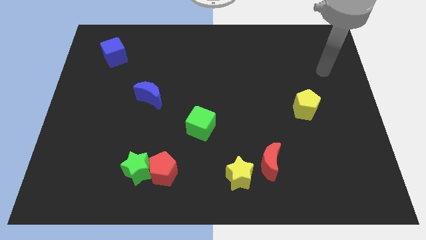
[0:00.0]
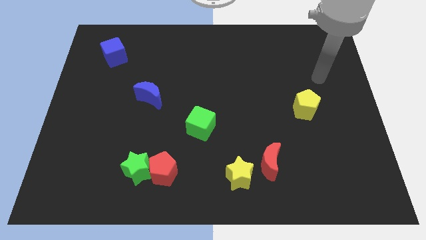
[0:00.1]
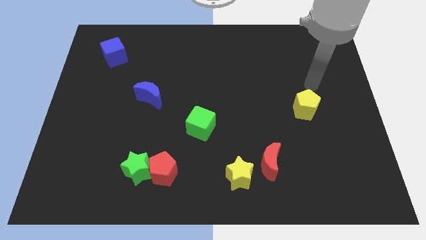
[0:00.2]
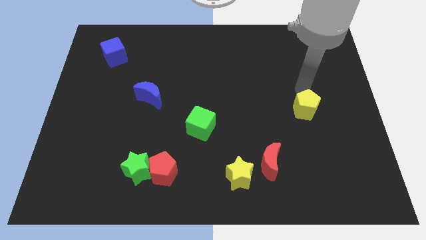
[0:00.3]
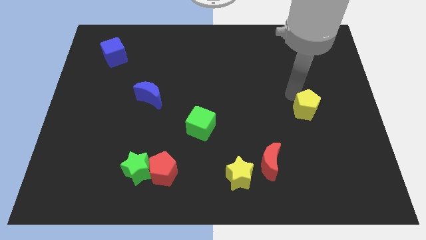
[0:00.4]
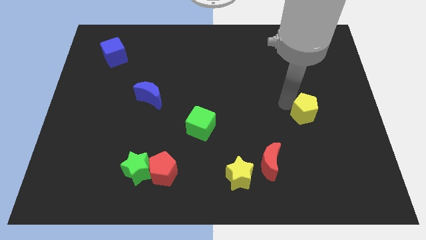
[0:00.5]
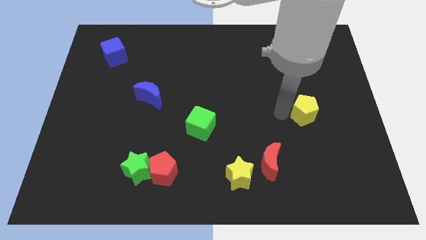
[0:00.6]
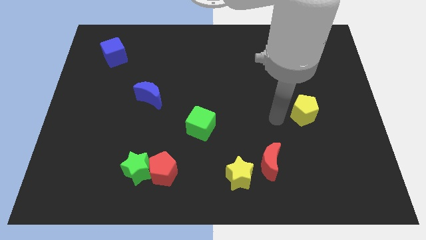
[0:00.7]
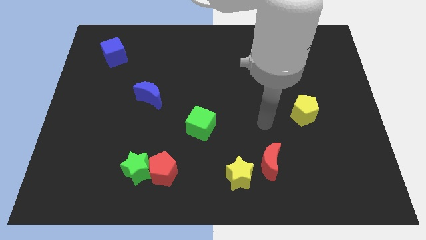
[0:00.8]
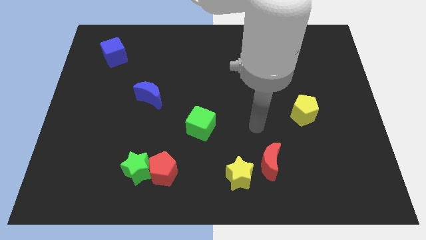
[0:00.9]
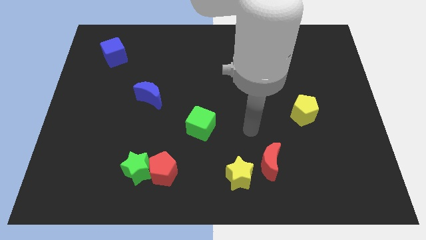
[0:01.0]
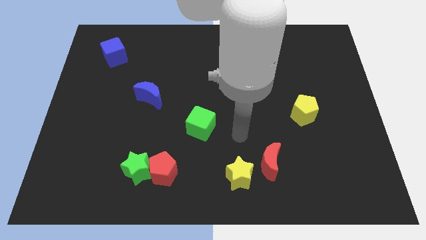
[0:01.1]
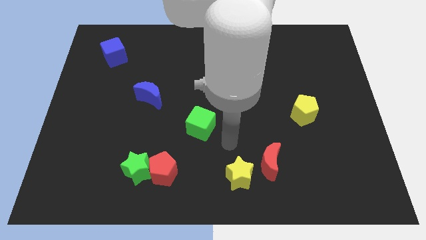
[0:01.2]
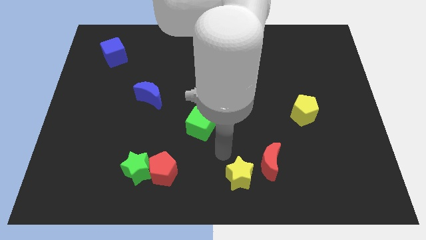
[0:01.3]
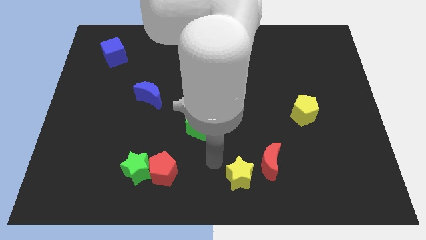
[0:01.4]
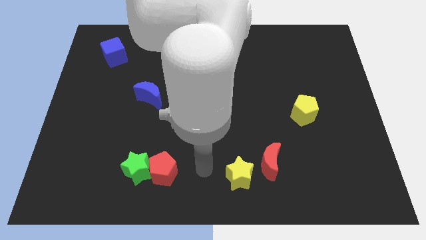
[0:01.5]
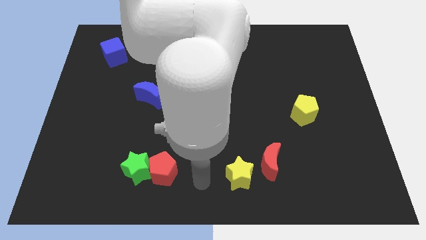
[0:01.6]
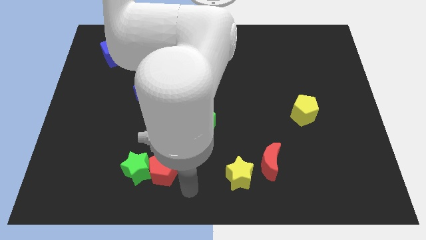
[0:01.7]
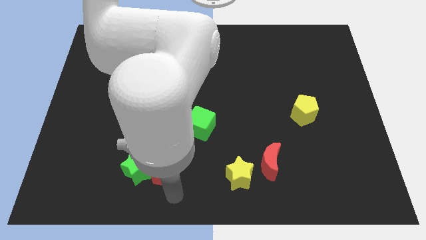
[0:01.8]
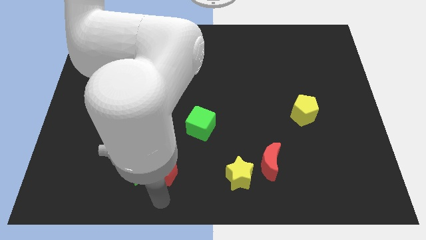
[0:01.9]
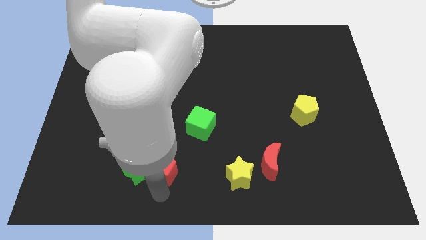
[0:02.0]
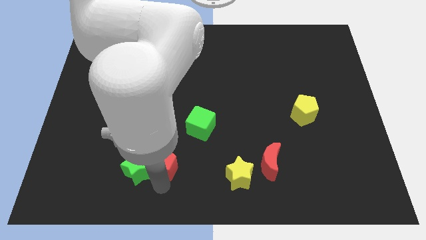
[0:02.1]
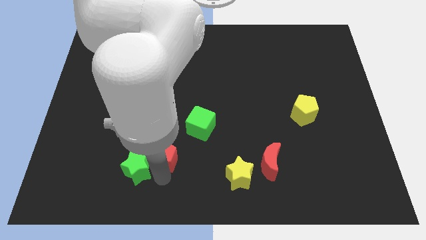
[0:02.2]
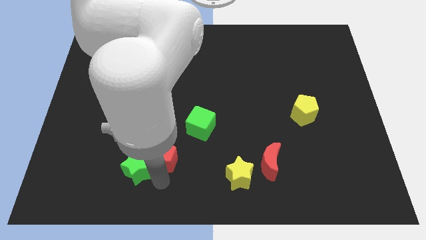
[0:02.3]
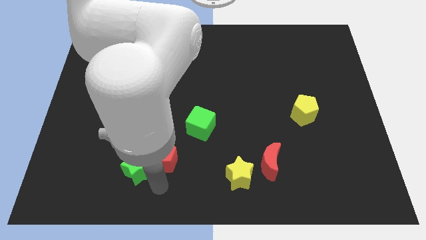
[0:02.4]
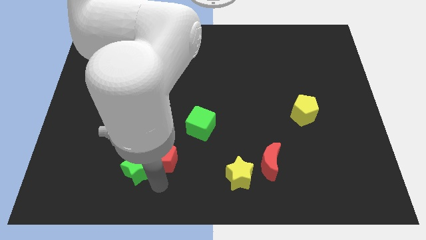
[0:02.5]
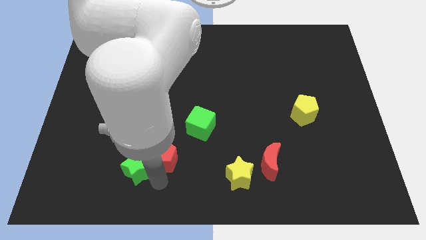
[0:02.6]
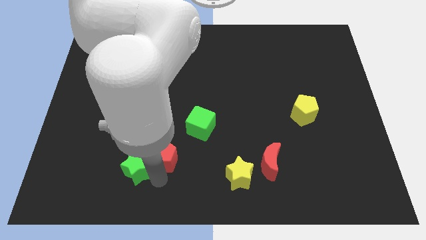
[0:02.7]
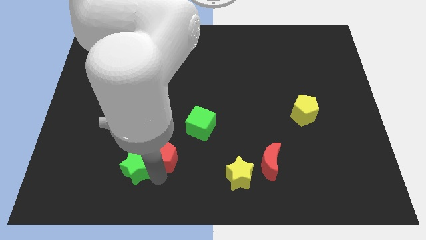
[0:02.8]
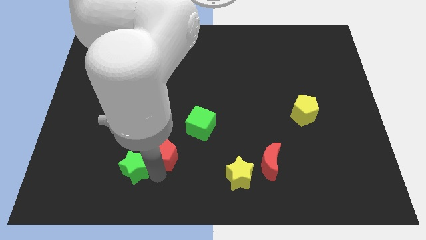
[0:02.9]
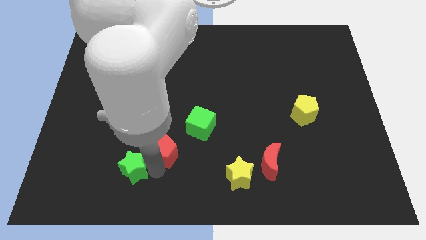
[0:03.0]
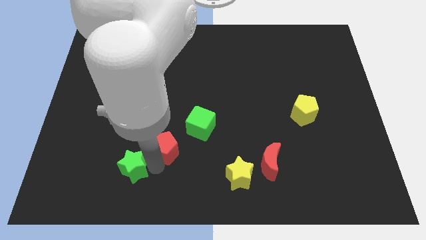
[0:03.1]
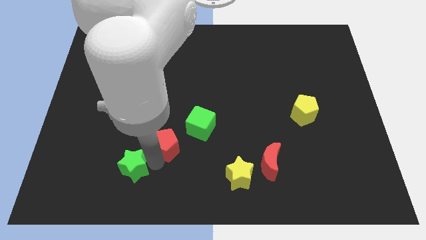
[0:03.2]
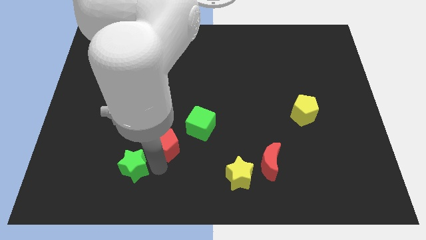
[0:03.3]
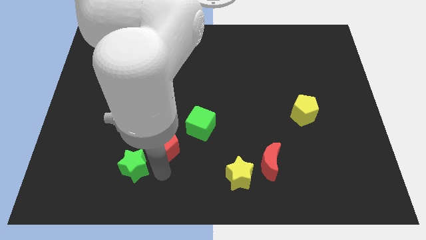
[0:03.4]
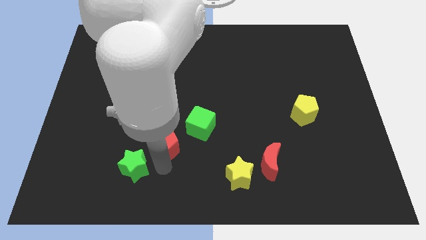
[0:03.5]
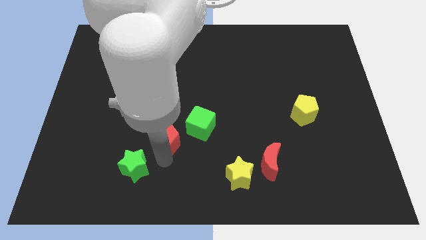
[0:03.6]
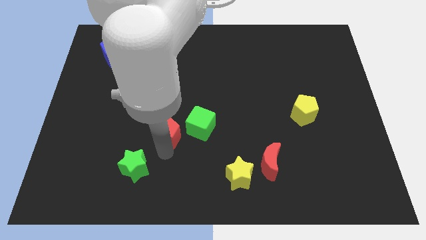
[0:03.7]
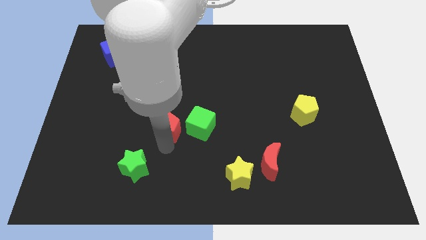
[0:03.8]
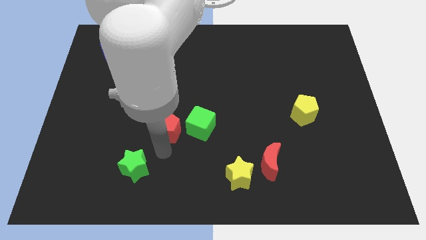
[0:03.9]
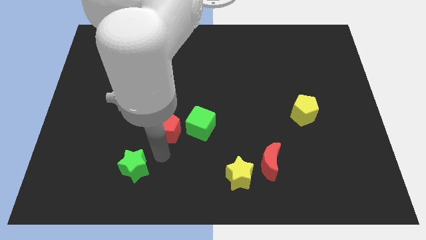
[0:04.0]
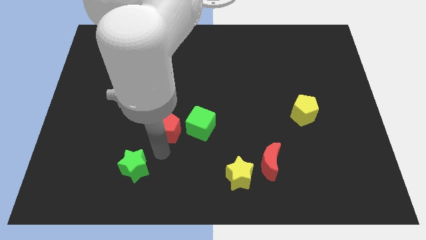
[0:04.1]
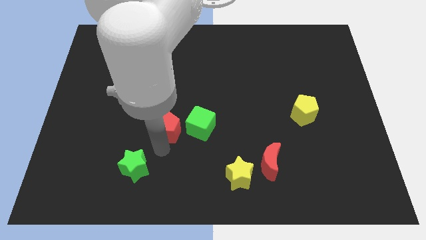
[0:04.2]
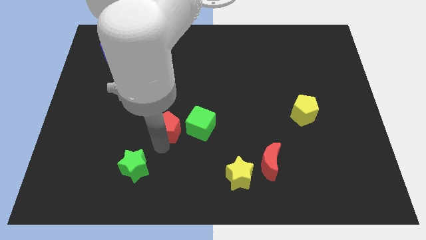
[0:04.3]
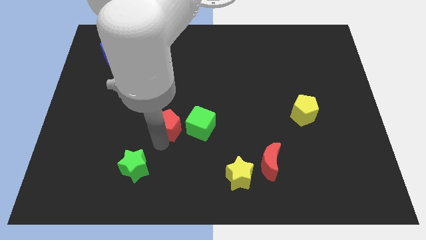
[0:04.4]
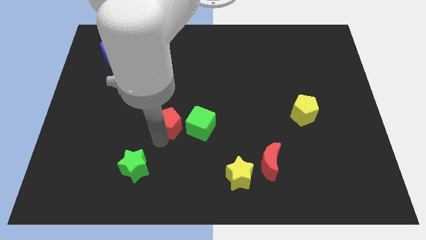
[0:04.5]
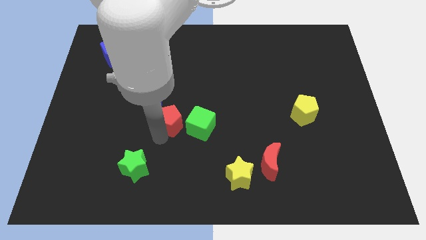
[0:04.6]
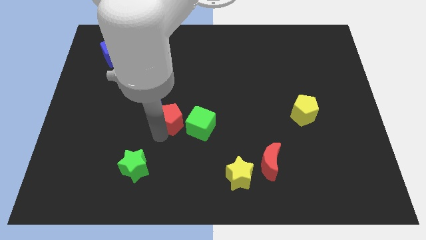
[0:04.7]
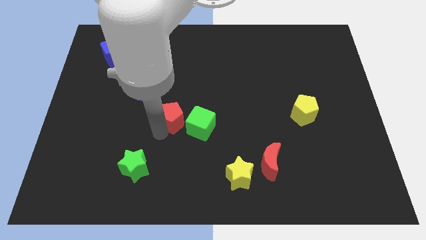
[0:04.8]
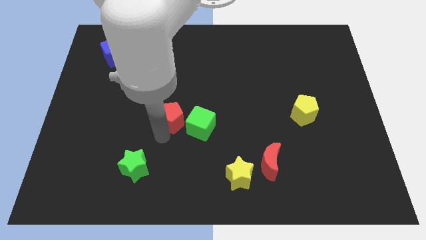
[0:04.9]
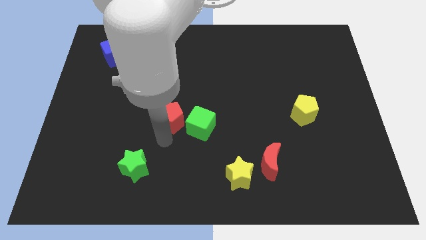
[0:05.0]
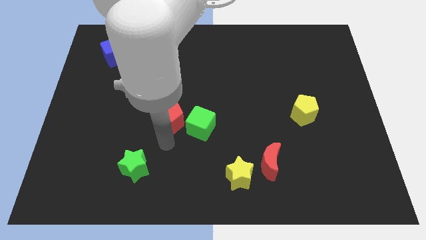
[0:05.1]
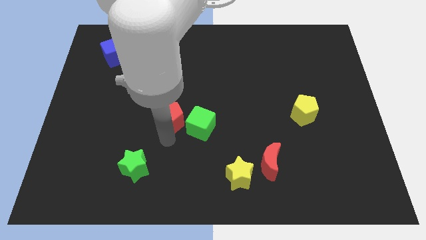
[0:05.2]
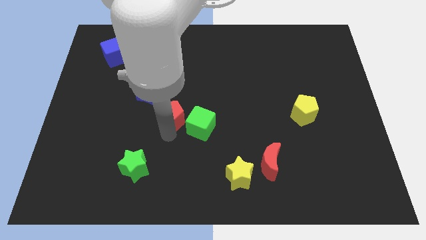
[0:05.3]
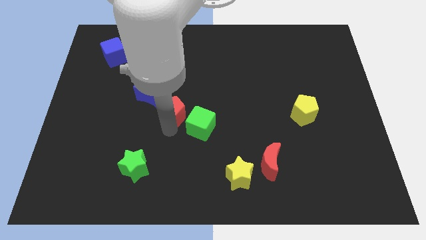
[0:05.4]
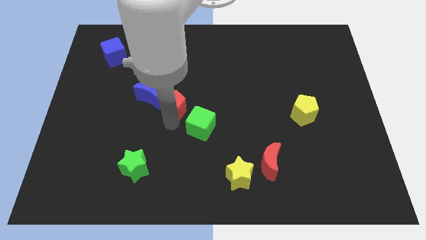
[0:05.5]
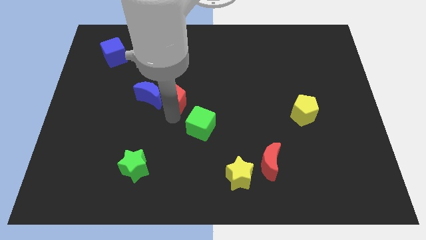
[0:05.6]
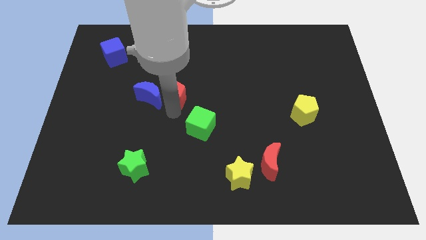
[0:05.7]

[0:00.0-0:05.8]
move the red pentagon to the top right side of the blue moon

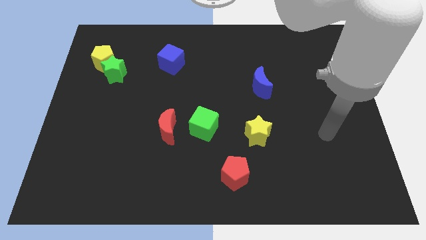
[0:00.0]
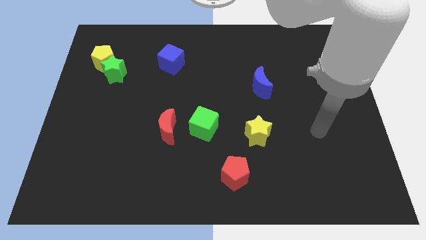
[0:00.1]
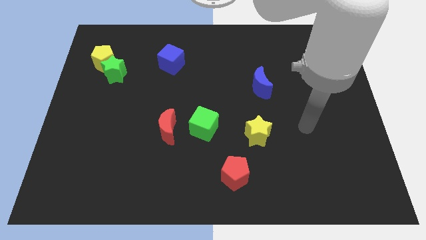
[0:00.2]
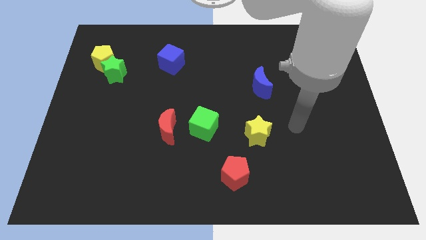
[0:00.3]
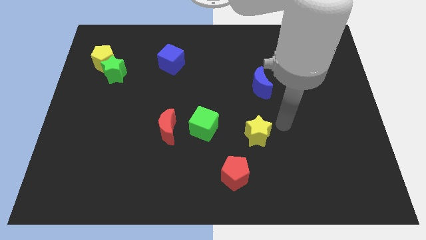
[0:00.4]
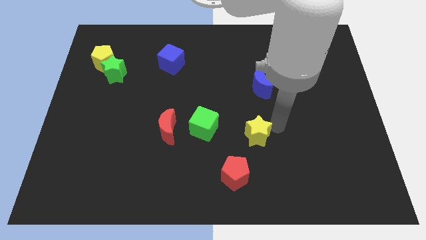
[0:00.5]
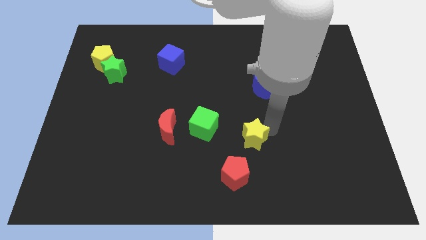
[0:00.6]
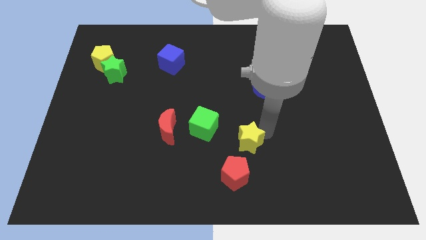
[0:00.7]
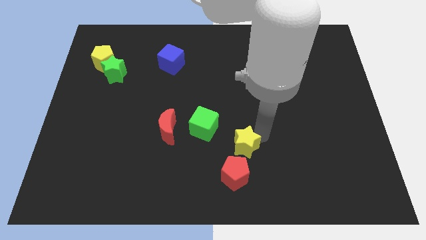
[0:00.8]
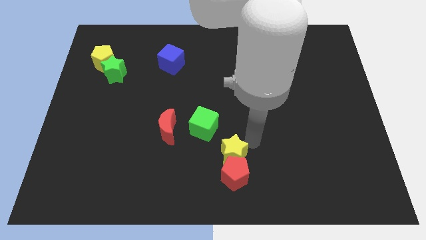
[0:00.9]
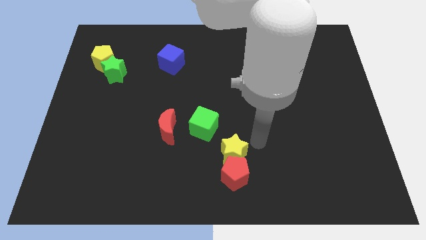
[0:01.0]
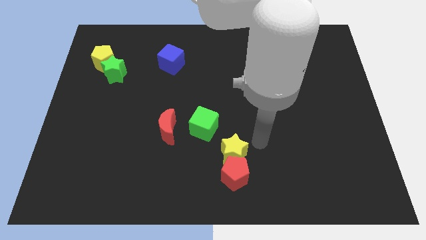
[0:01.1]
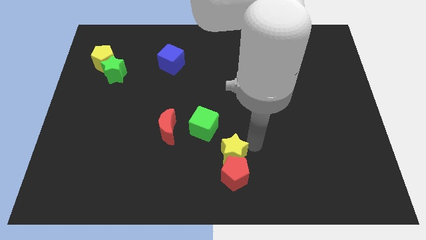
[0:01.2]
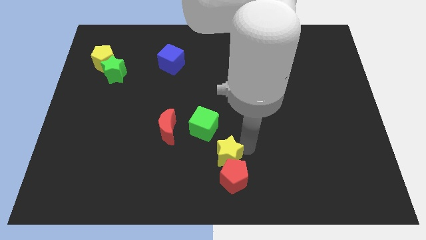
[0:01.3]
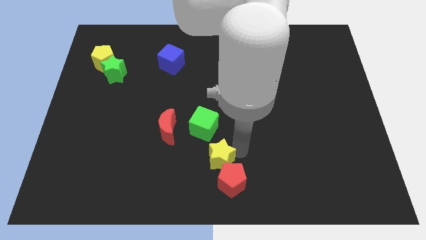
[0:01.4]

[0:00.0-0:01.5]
slide the yellow star to the bottom of the green cube
